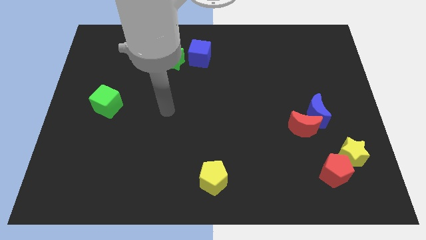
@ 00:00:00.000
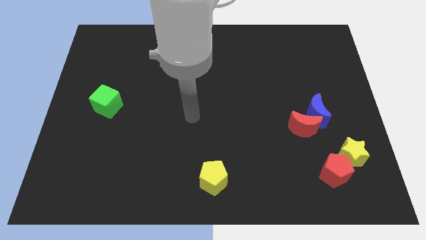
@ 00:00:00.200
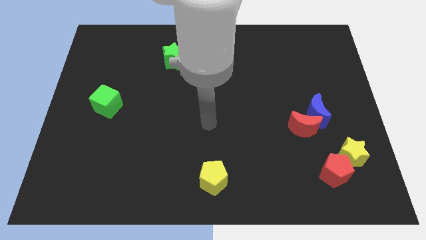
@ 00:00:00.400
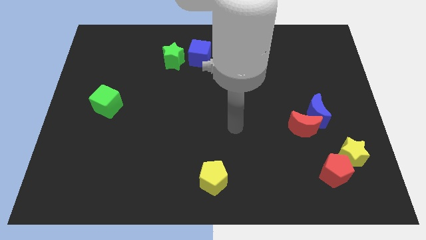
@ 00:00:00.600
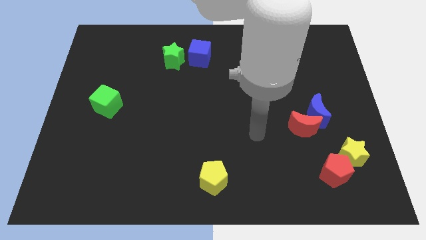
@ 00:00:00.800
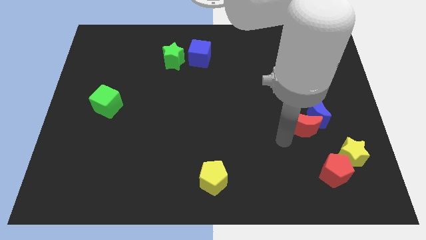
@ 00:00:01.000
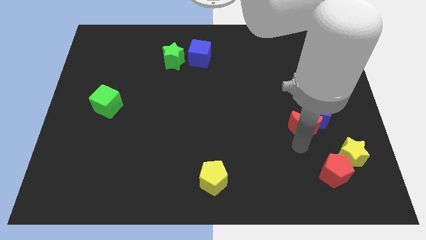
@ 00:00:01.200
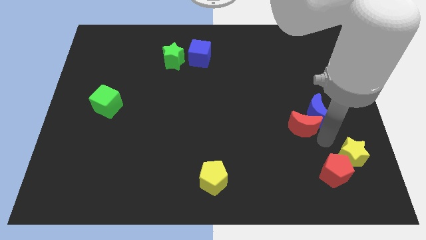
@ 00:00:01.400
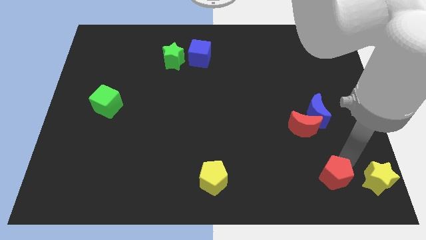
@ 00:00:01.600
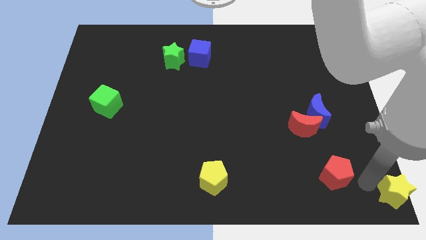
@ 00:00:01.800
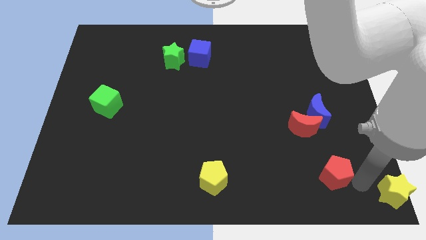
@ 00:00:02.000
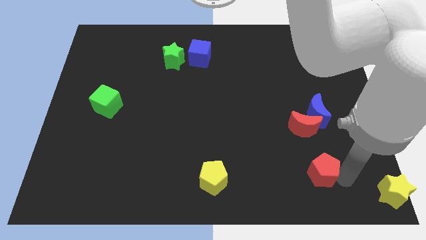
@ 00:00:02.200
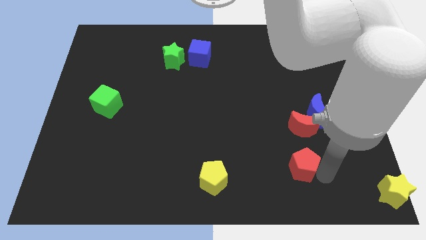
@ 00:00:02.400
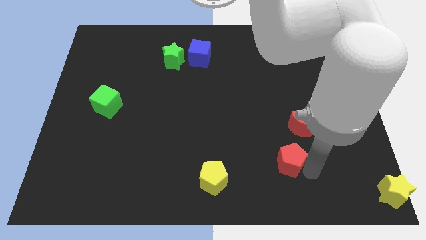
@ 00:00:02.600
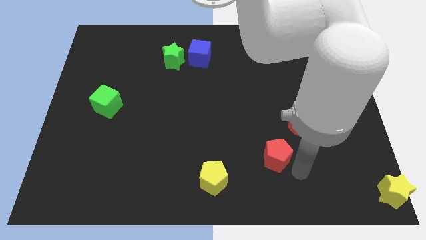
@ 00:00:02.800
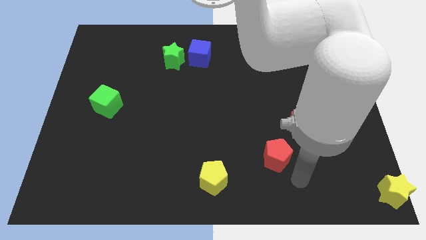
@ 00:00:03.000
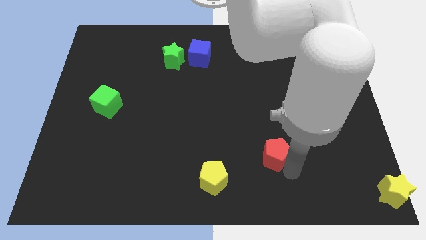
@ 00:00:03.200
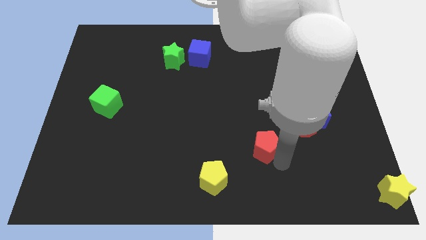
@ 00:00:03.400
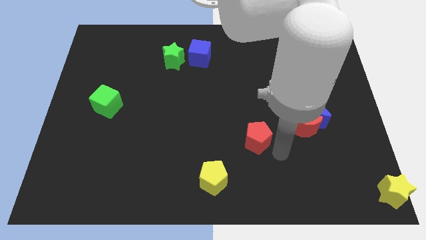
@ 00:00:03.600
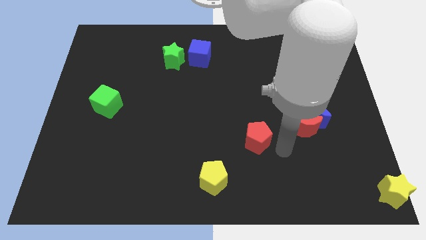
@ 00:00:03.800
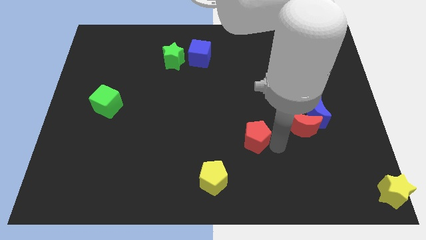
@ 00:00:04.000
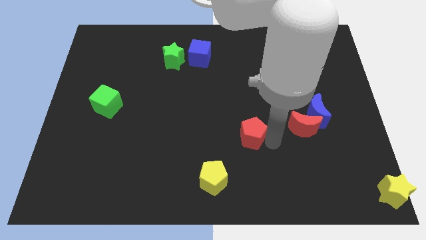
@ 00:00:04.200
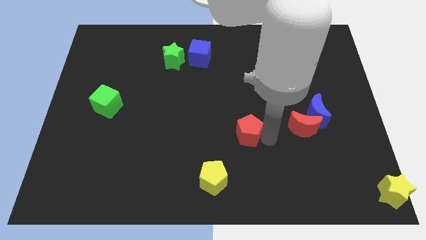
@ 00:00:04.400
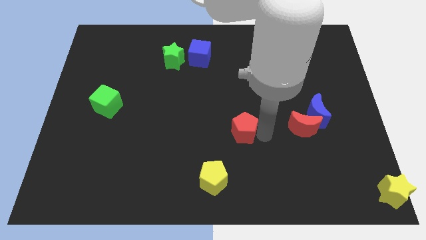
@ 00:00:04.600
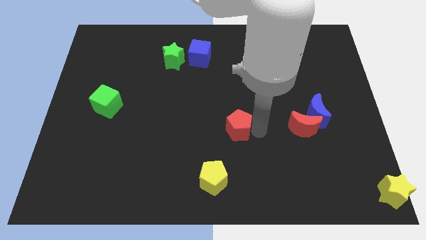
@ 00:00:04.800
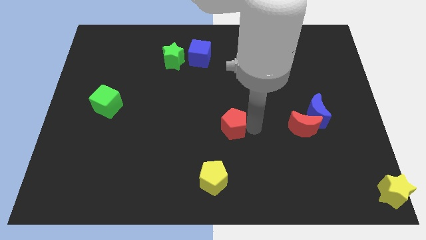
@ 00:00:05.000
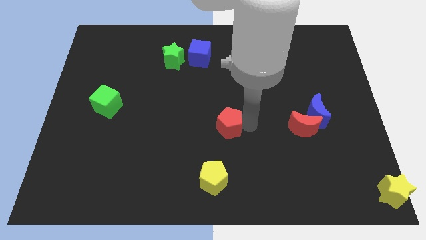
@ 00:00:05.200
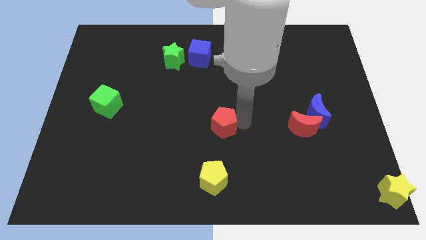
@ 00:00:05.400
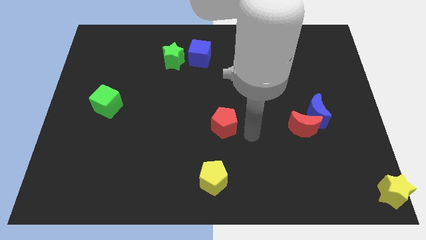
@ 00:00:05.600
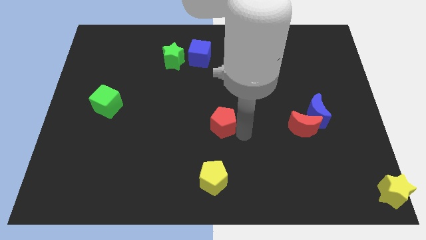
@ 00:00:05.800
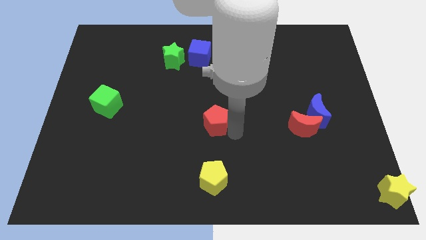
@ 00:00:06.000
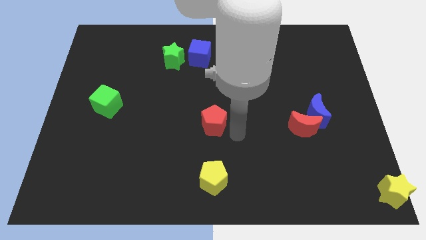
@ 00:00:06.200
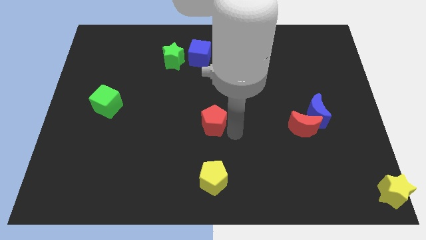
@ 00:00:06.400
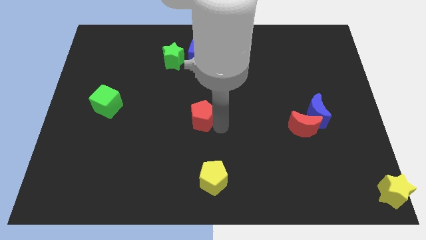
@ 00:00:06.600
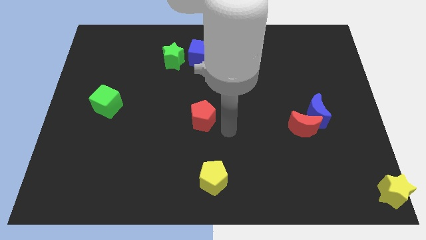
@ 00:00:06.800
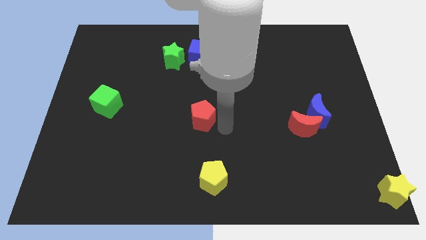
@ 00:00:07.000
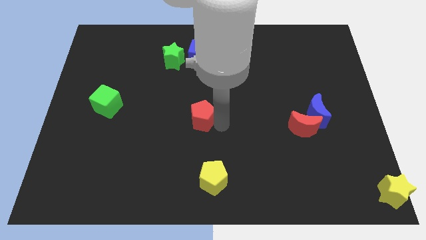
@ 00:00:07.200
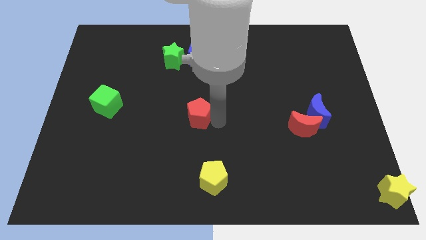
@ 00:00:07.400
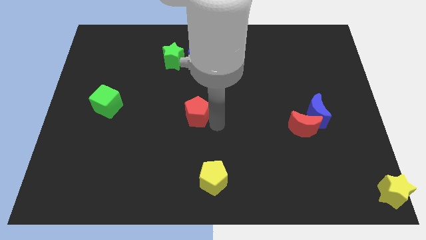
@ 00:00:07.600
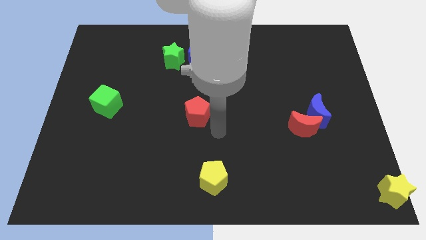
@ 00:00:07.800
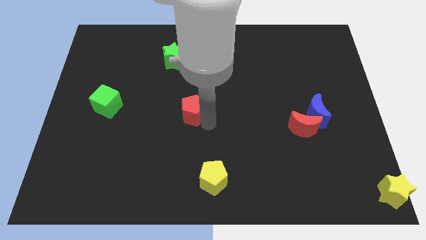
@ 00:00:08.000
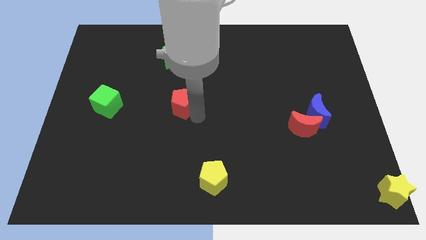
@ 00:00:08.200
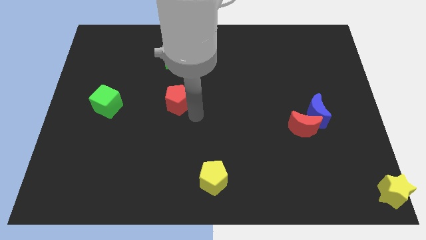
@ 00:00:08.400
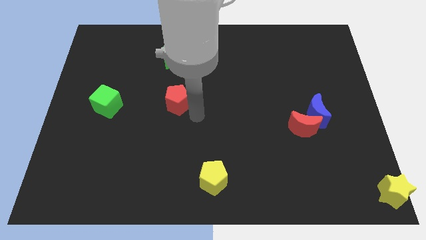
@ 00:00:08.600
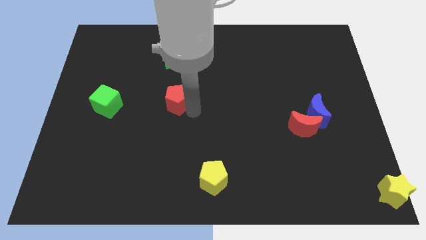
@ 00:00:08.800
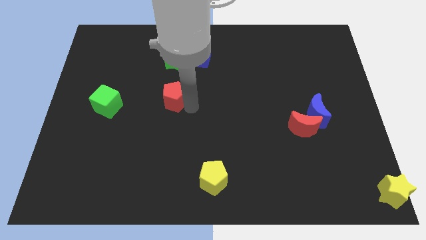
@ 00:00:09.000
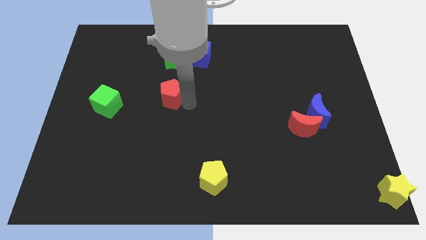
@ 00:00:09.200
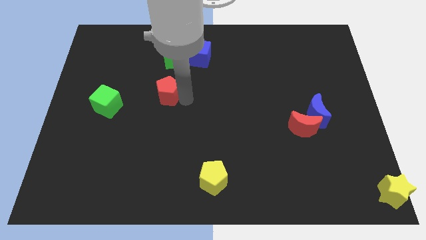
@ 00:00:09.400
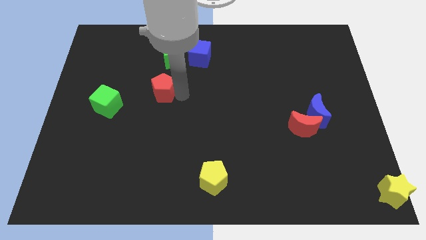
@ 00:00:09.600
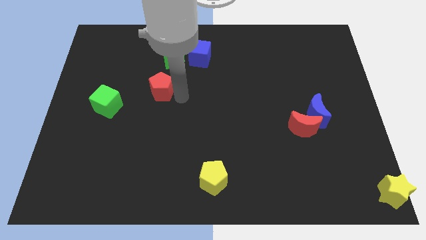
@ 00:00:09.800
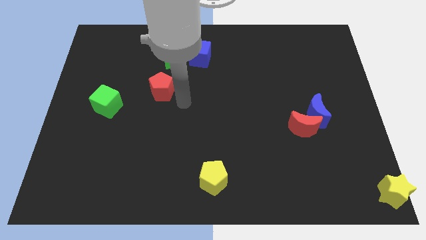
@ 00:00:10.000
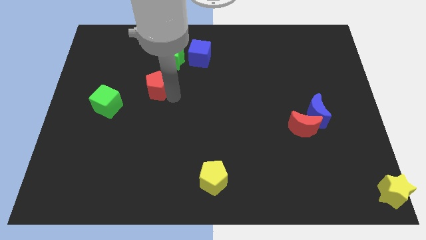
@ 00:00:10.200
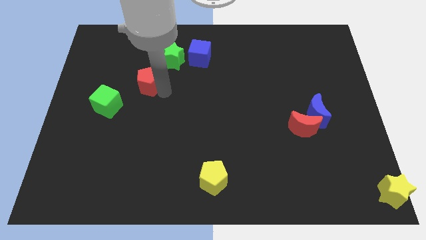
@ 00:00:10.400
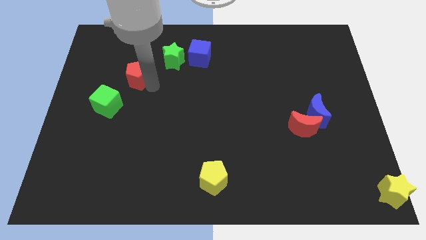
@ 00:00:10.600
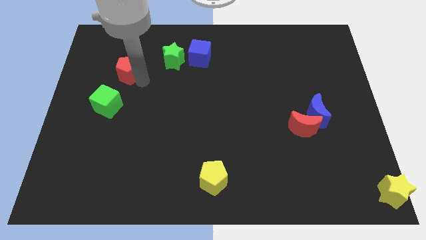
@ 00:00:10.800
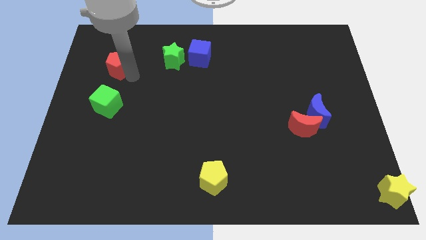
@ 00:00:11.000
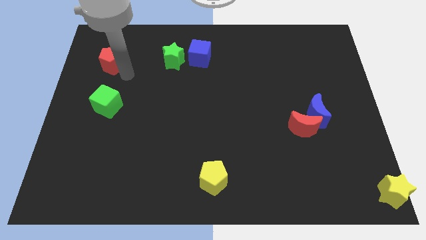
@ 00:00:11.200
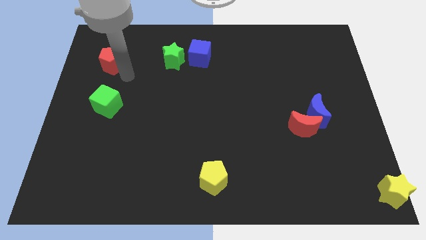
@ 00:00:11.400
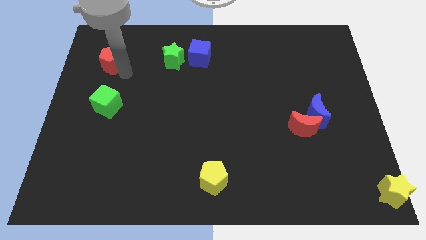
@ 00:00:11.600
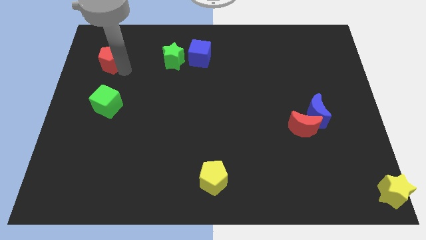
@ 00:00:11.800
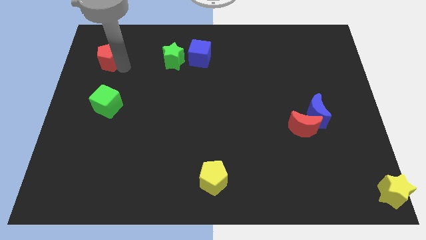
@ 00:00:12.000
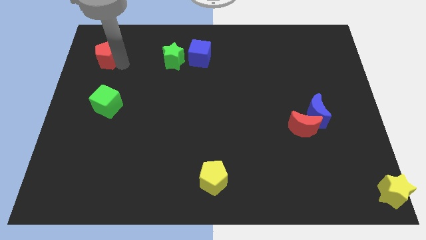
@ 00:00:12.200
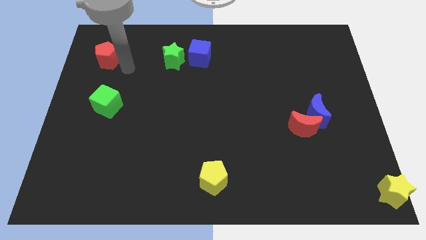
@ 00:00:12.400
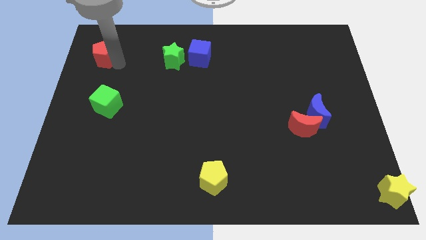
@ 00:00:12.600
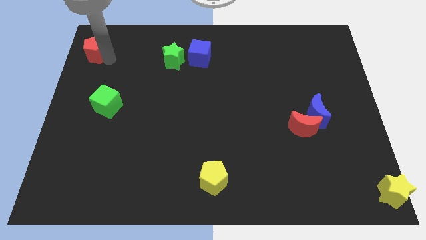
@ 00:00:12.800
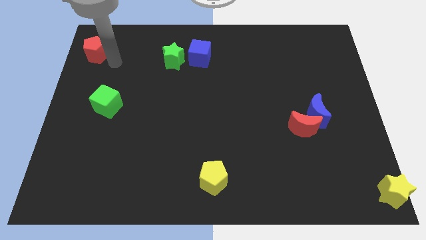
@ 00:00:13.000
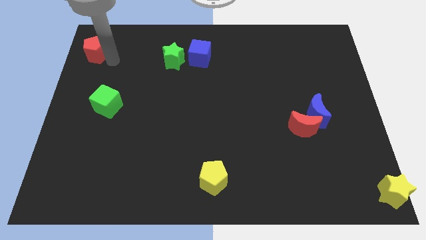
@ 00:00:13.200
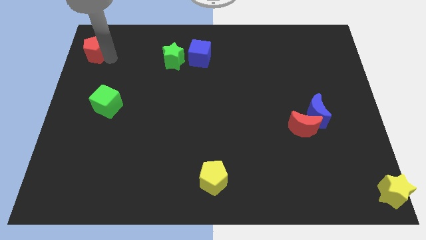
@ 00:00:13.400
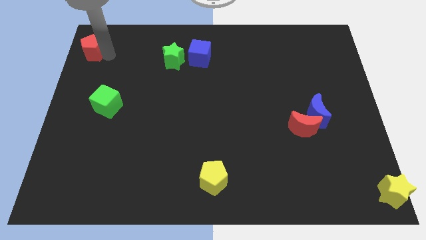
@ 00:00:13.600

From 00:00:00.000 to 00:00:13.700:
slide the red pentagon to the top left
